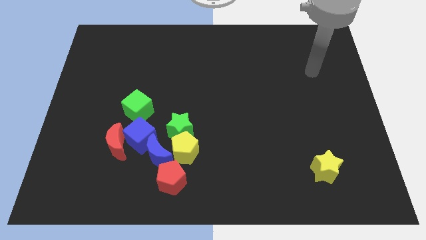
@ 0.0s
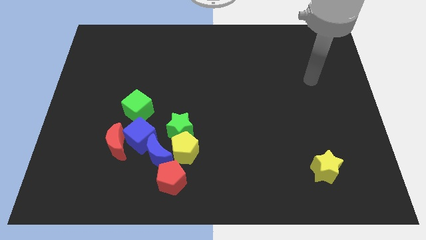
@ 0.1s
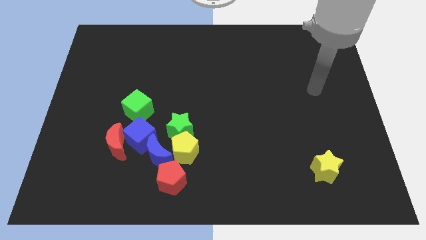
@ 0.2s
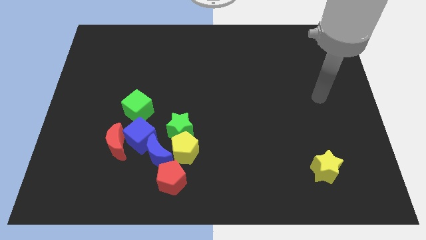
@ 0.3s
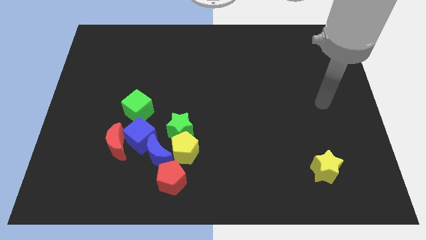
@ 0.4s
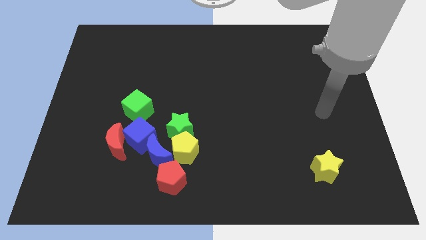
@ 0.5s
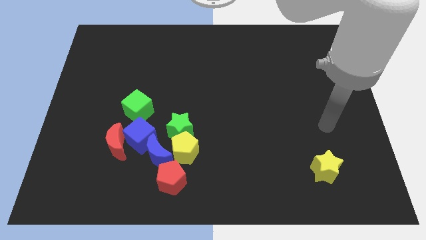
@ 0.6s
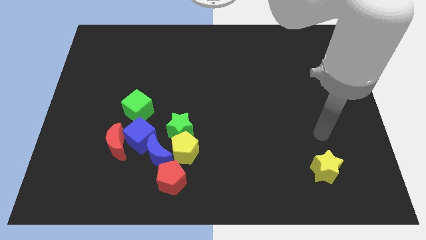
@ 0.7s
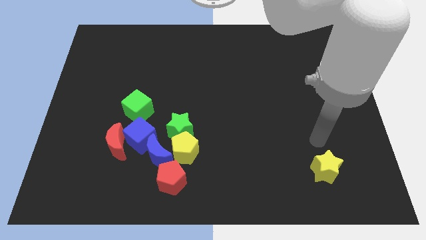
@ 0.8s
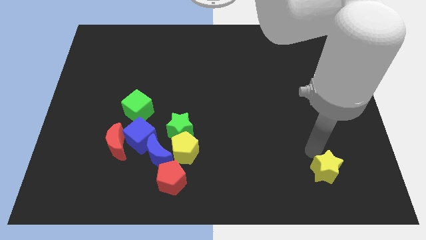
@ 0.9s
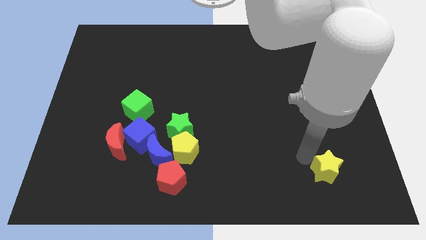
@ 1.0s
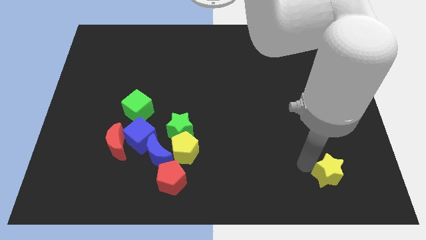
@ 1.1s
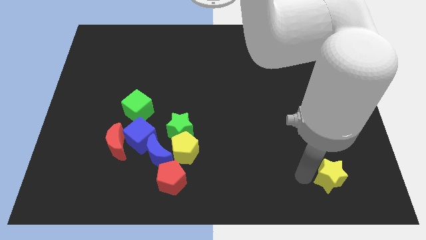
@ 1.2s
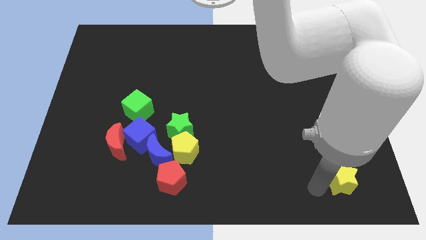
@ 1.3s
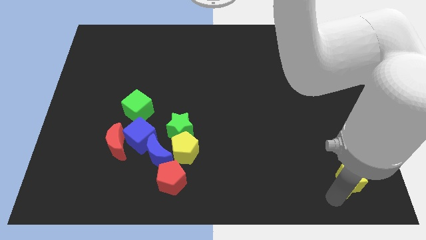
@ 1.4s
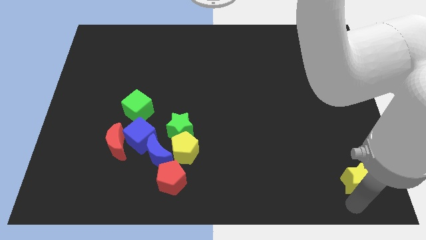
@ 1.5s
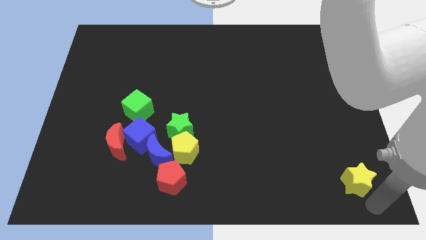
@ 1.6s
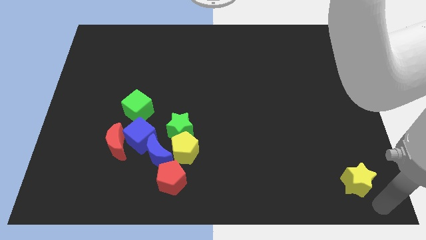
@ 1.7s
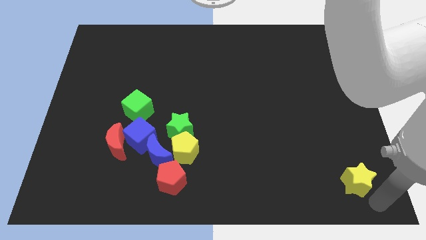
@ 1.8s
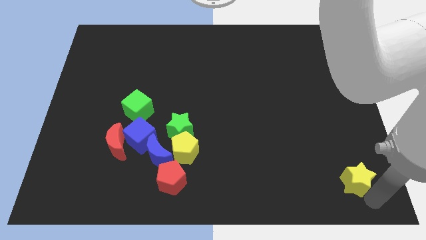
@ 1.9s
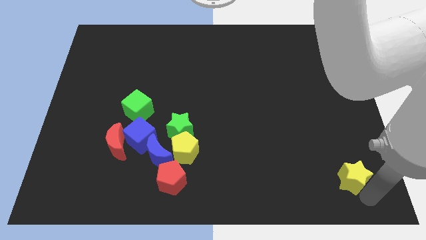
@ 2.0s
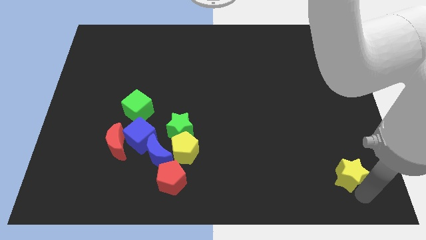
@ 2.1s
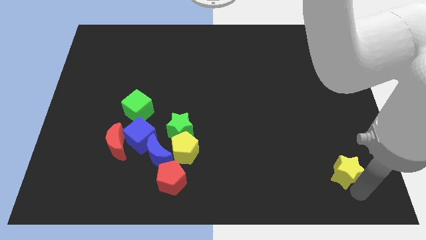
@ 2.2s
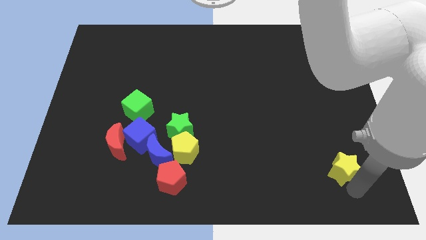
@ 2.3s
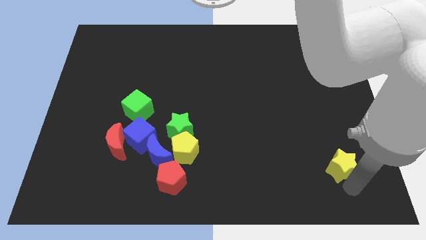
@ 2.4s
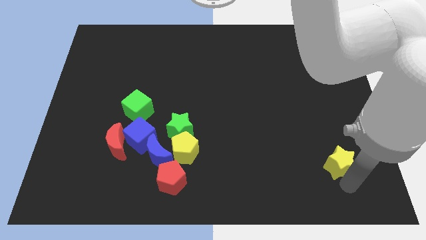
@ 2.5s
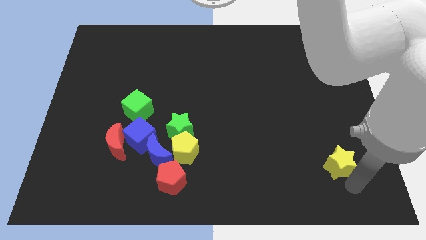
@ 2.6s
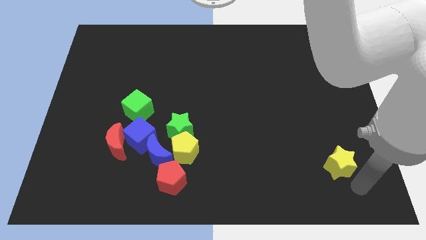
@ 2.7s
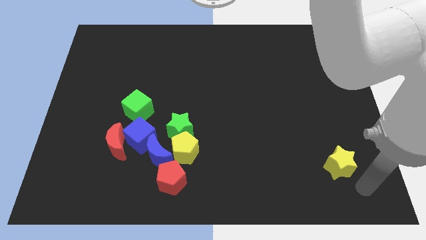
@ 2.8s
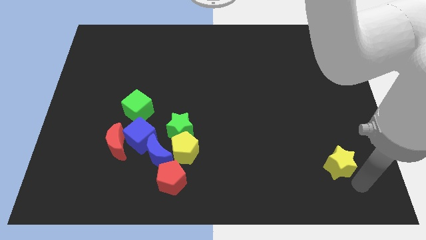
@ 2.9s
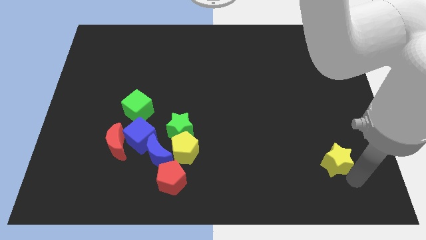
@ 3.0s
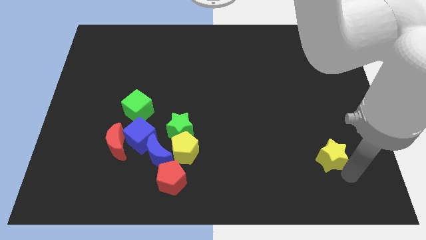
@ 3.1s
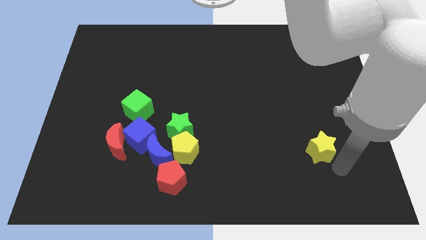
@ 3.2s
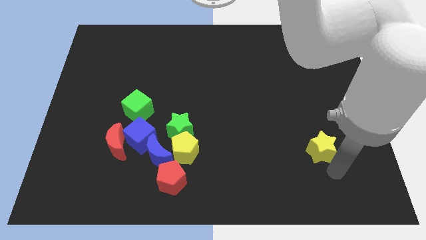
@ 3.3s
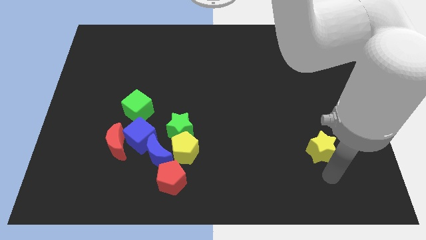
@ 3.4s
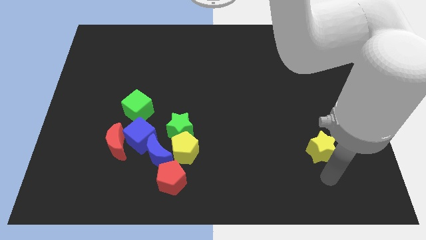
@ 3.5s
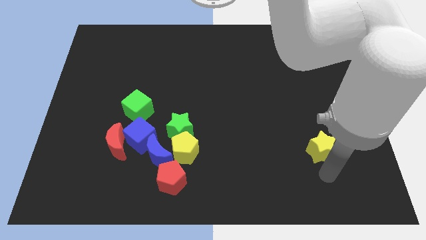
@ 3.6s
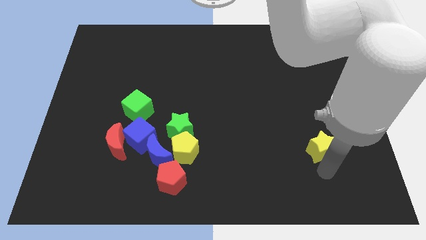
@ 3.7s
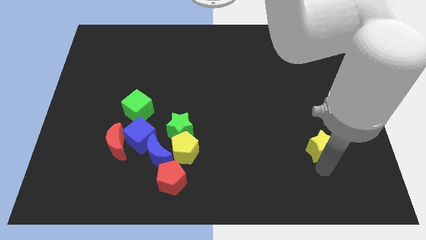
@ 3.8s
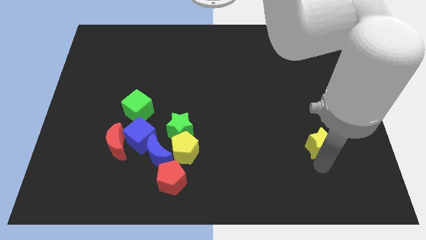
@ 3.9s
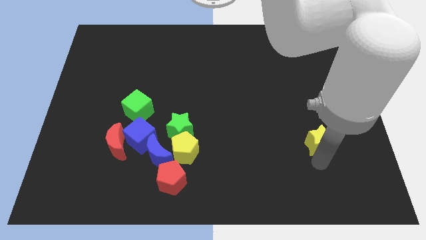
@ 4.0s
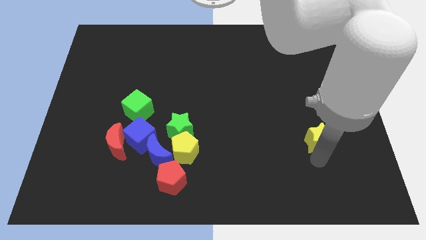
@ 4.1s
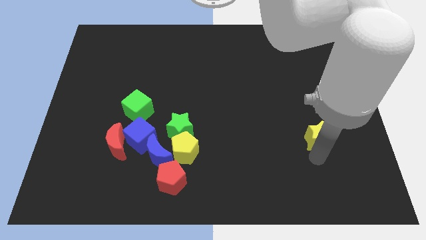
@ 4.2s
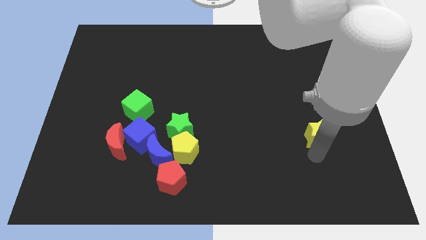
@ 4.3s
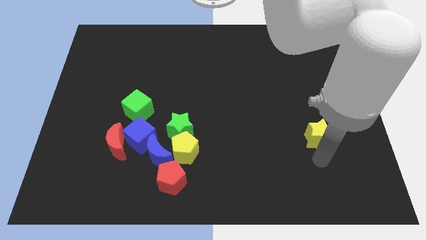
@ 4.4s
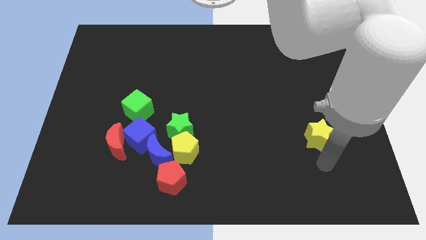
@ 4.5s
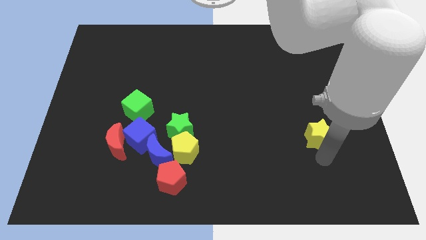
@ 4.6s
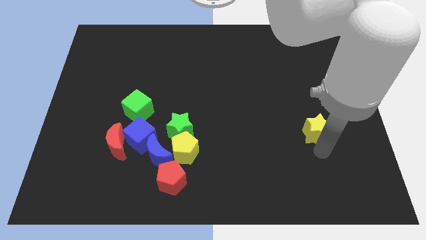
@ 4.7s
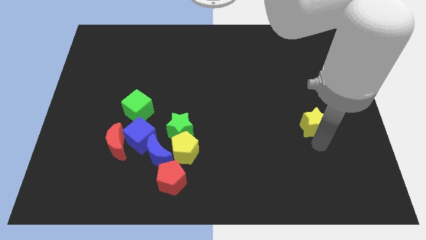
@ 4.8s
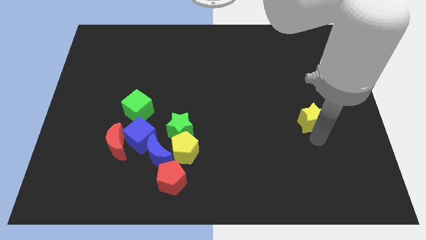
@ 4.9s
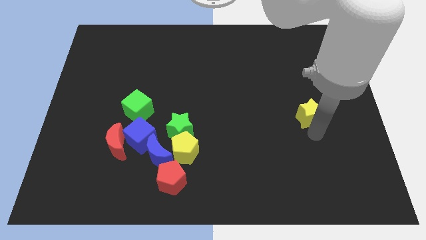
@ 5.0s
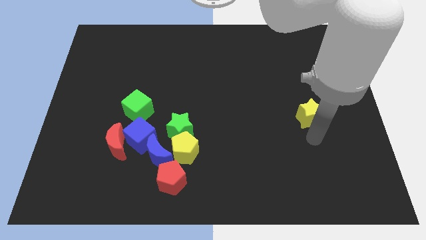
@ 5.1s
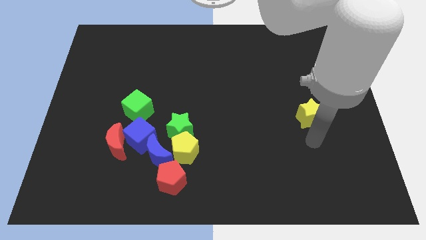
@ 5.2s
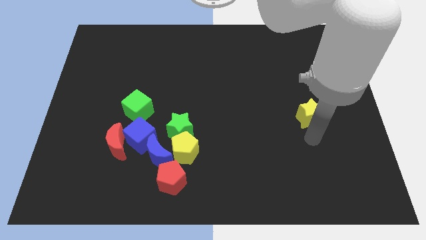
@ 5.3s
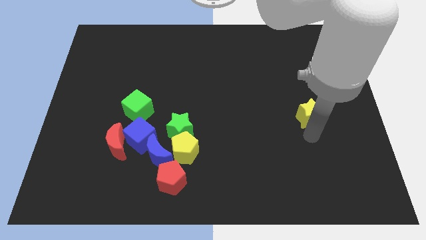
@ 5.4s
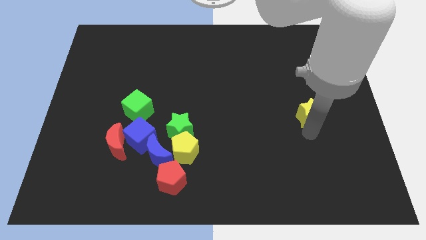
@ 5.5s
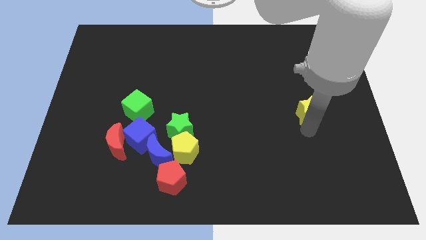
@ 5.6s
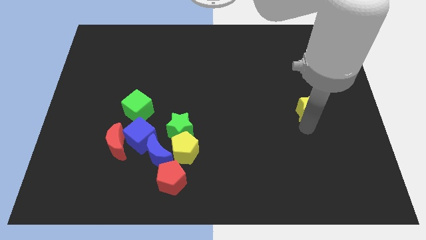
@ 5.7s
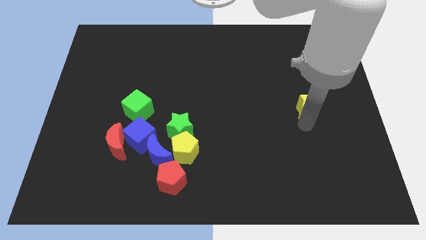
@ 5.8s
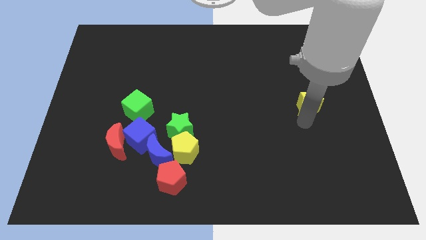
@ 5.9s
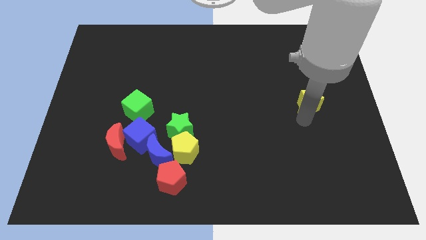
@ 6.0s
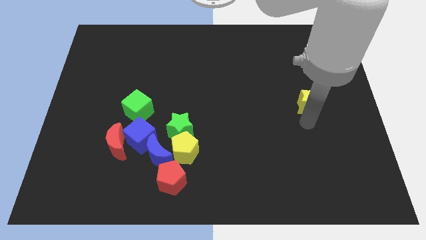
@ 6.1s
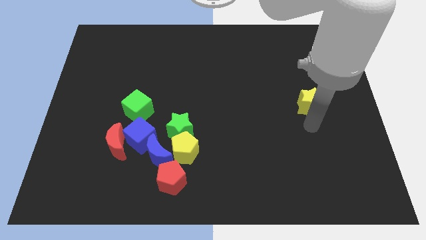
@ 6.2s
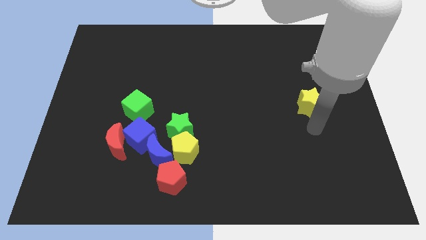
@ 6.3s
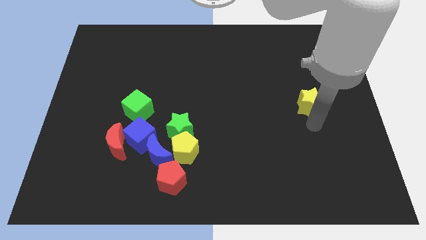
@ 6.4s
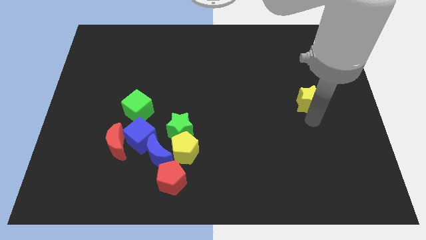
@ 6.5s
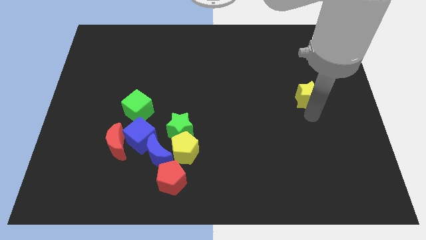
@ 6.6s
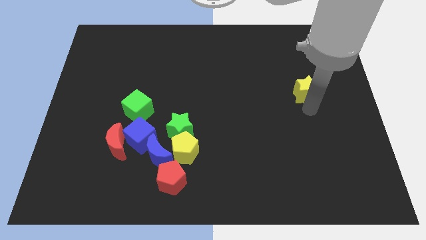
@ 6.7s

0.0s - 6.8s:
push the yellow star up

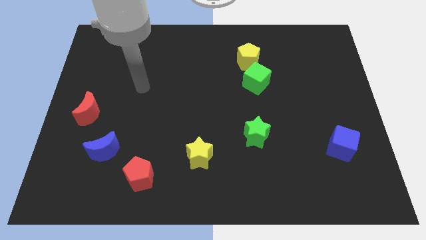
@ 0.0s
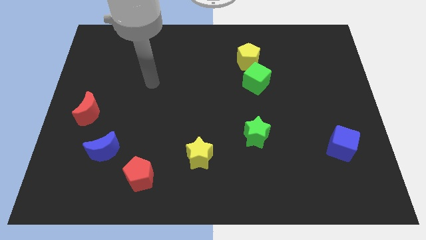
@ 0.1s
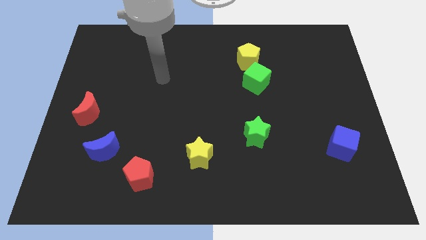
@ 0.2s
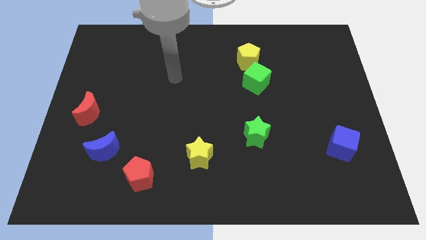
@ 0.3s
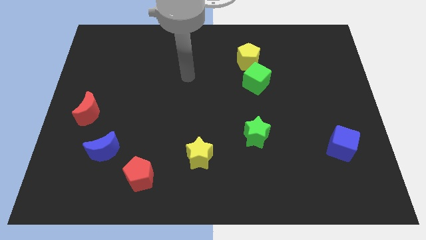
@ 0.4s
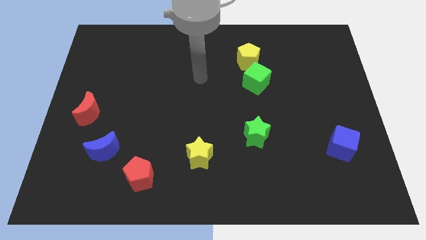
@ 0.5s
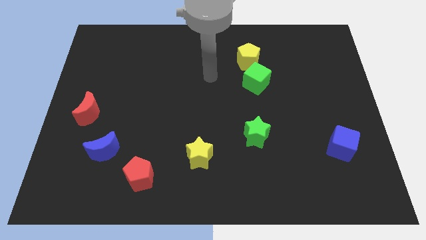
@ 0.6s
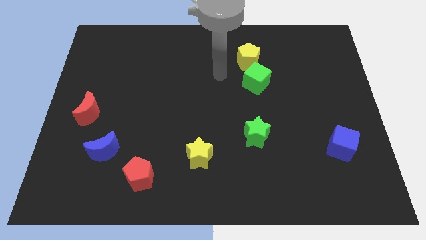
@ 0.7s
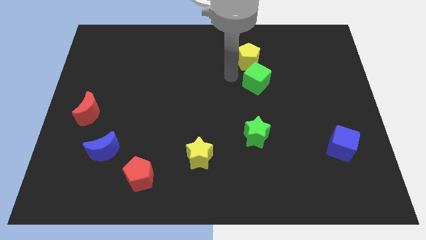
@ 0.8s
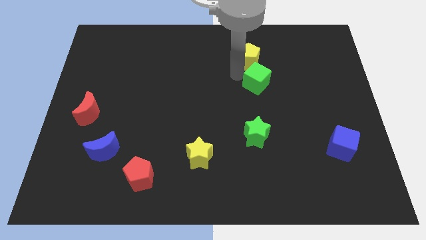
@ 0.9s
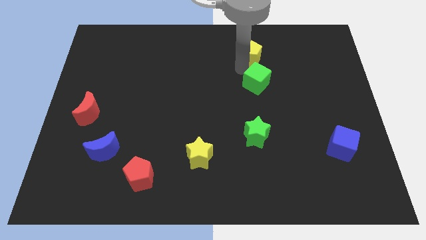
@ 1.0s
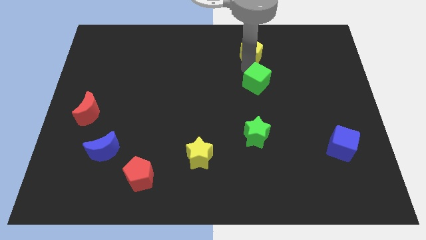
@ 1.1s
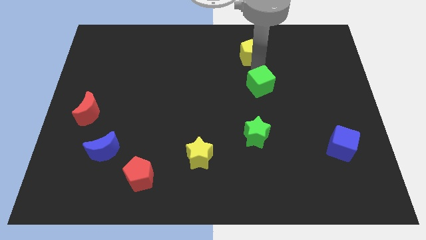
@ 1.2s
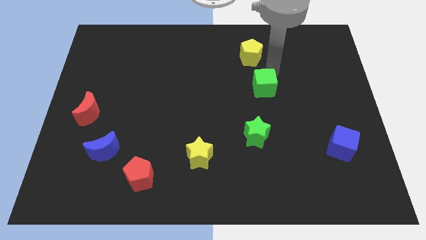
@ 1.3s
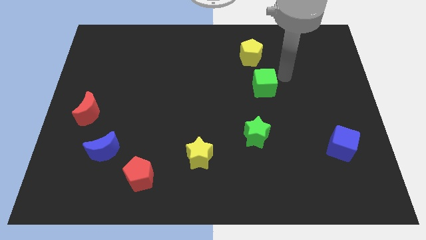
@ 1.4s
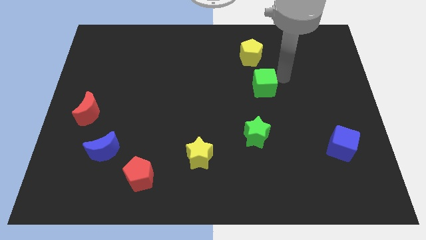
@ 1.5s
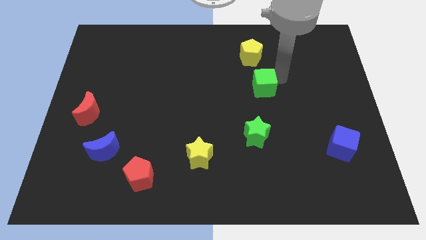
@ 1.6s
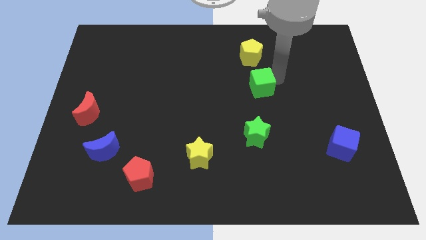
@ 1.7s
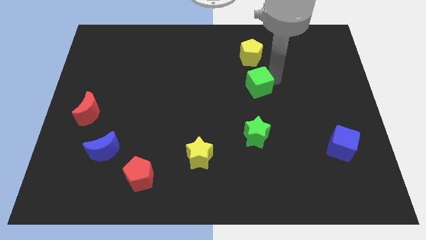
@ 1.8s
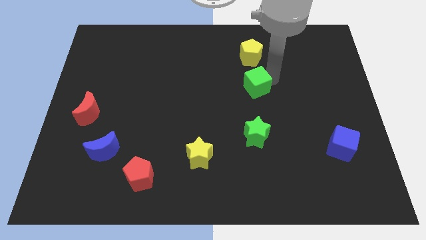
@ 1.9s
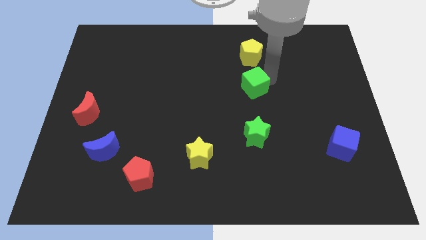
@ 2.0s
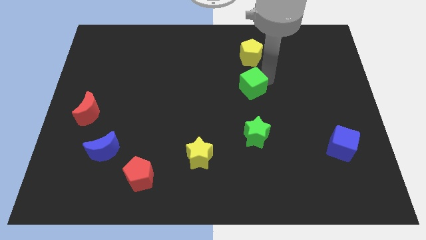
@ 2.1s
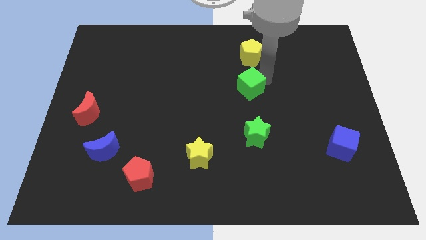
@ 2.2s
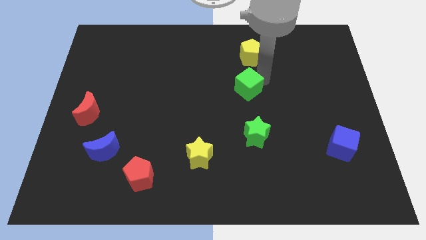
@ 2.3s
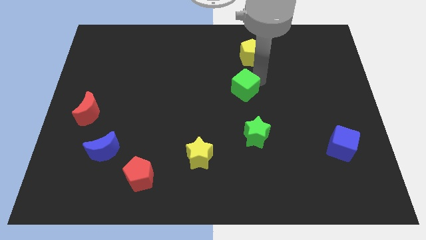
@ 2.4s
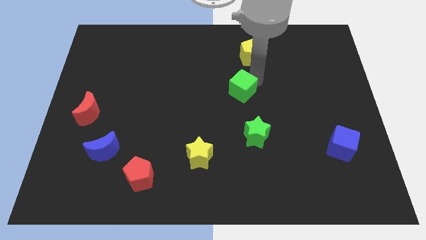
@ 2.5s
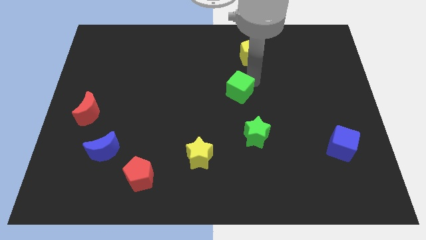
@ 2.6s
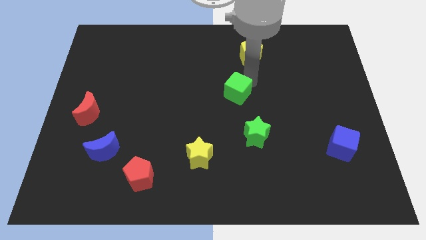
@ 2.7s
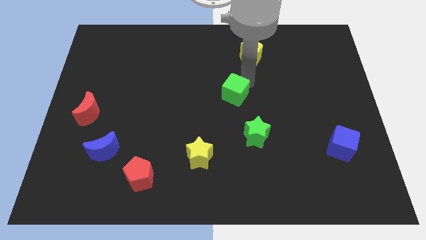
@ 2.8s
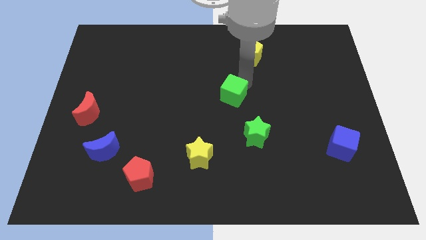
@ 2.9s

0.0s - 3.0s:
slide the green cube downwards and to the left diagonally somewhat
